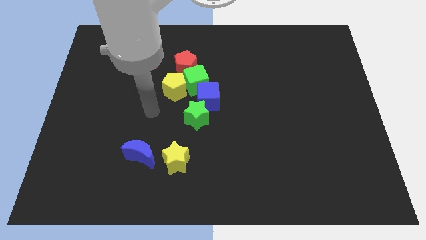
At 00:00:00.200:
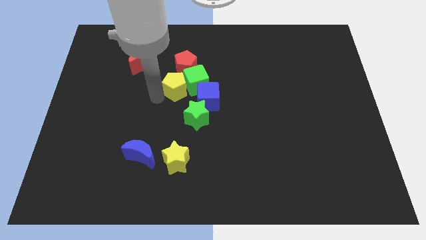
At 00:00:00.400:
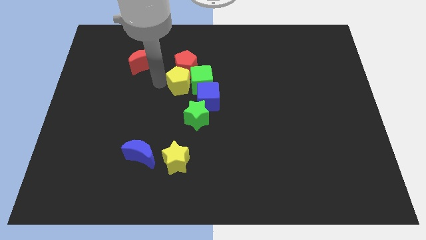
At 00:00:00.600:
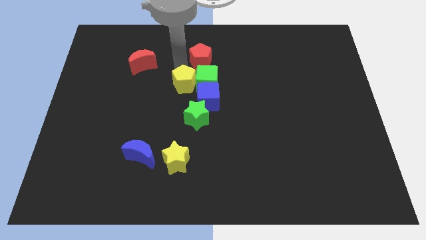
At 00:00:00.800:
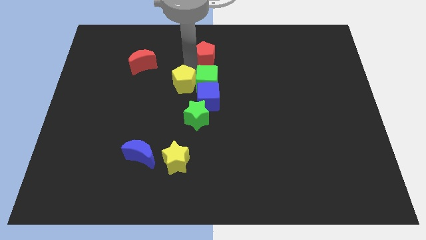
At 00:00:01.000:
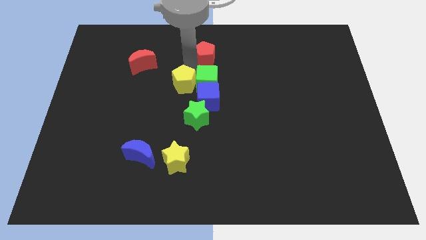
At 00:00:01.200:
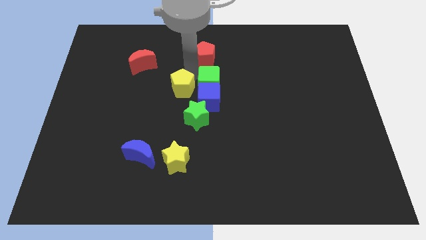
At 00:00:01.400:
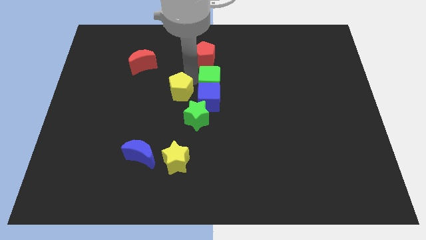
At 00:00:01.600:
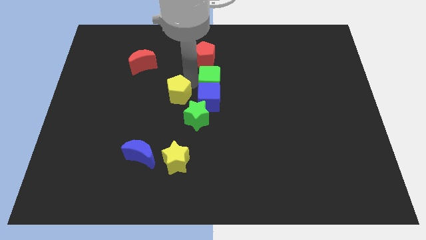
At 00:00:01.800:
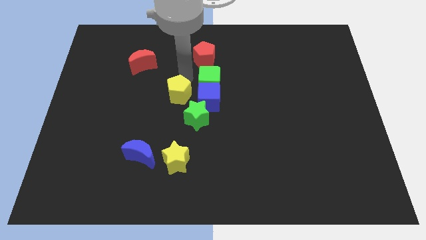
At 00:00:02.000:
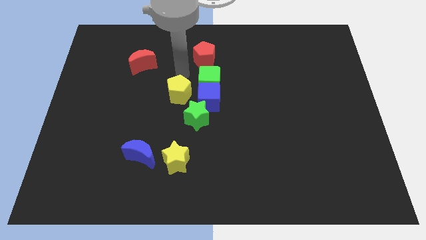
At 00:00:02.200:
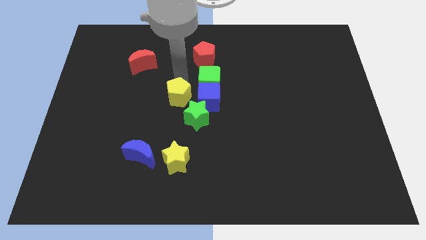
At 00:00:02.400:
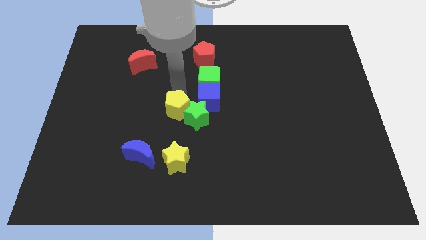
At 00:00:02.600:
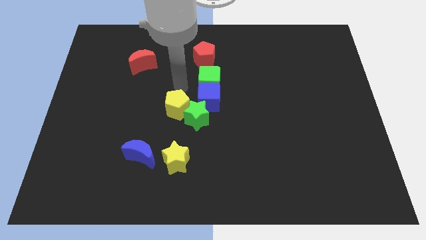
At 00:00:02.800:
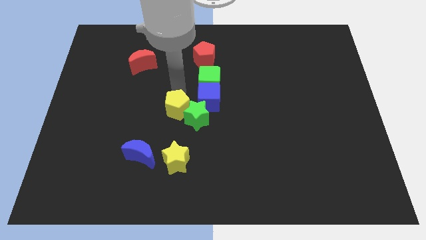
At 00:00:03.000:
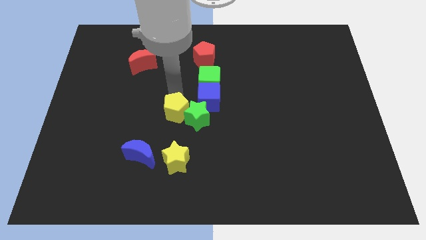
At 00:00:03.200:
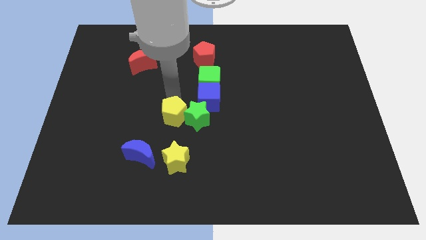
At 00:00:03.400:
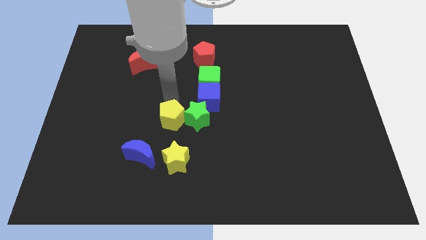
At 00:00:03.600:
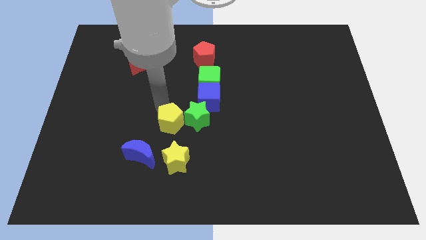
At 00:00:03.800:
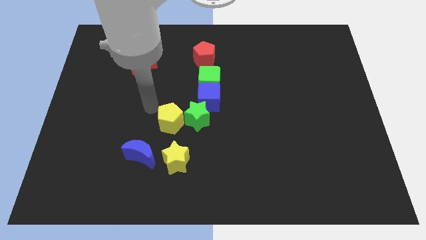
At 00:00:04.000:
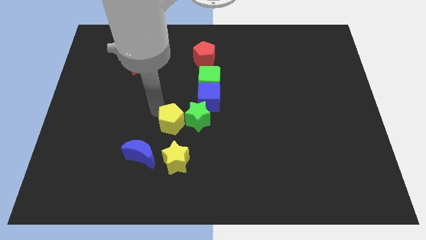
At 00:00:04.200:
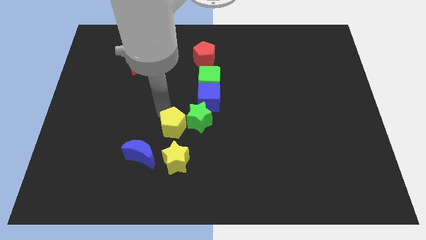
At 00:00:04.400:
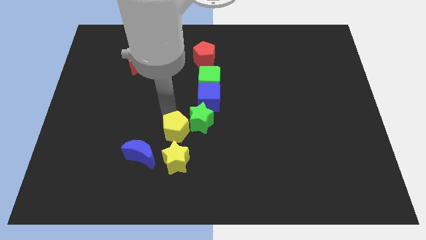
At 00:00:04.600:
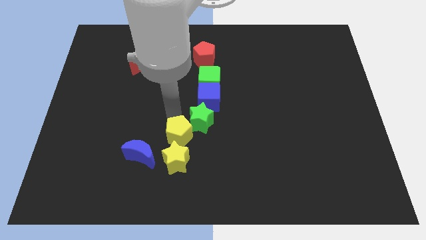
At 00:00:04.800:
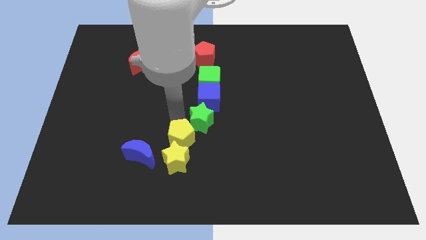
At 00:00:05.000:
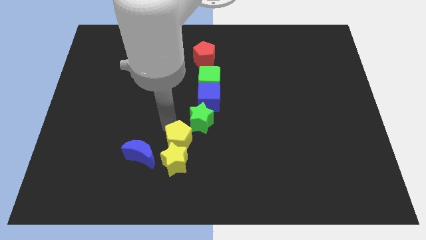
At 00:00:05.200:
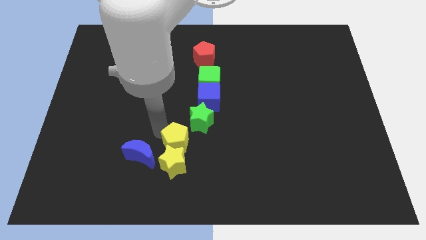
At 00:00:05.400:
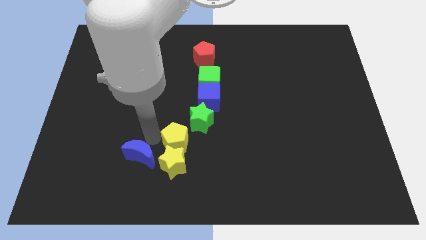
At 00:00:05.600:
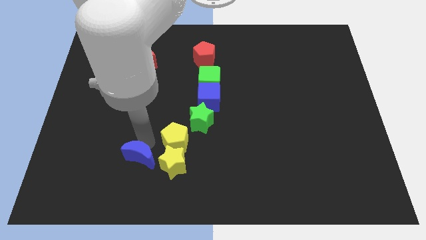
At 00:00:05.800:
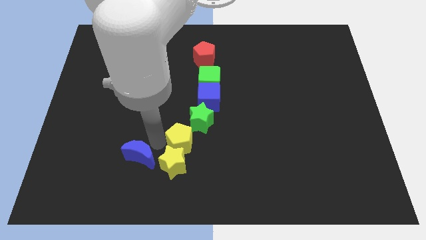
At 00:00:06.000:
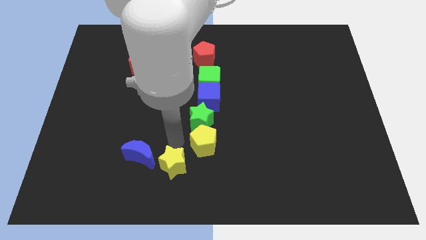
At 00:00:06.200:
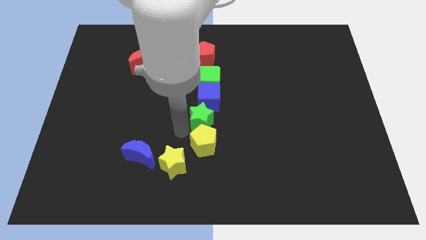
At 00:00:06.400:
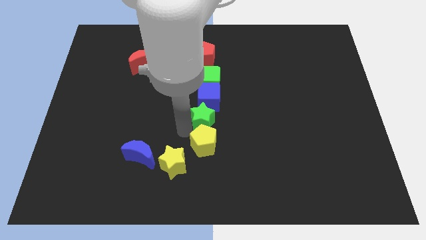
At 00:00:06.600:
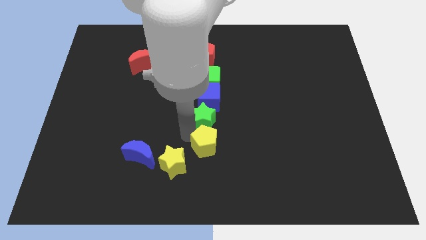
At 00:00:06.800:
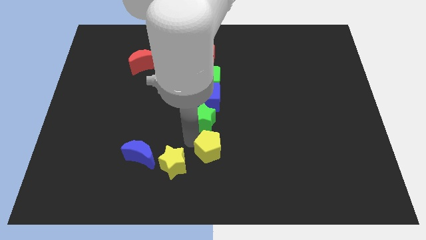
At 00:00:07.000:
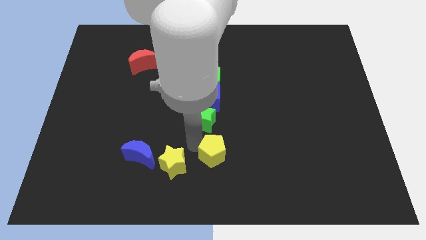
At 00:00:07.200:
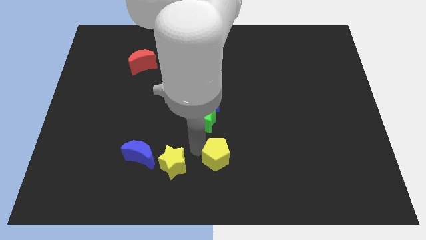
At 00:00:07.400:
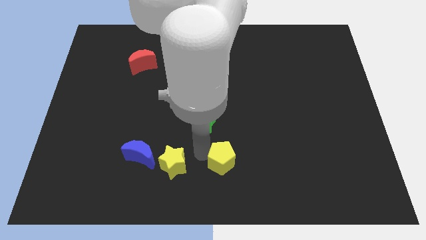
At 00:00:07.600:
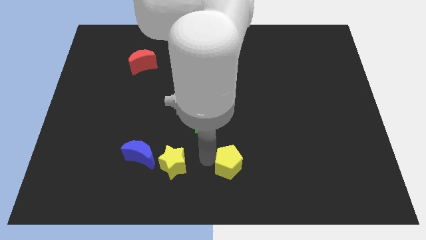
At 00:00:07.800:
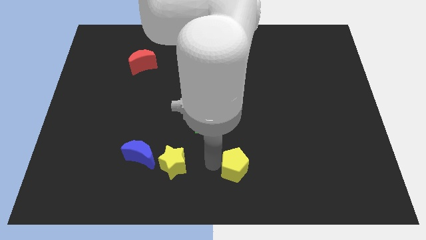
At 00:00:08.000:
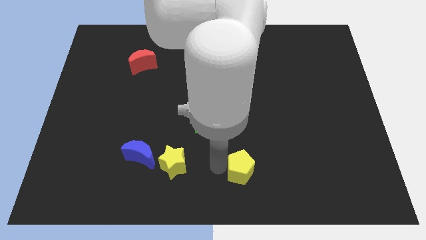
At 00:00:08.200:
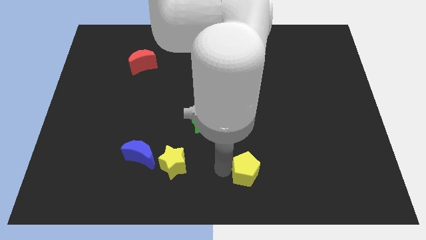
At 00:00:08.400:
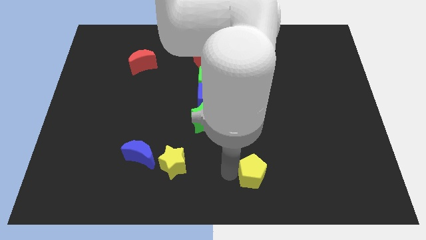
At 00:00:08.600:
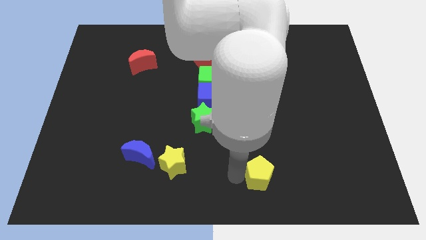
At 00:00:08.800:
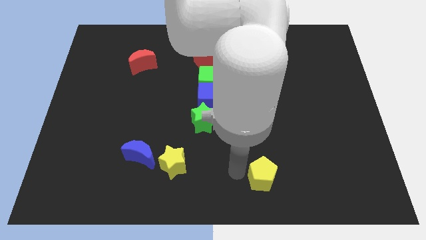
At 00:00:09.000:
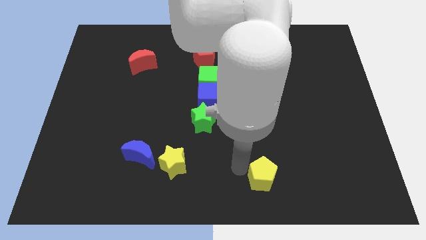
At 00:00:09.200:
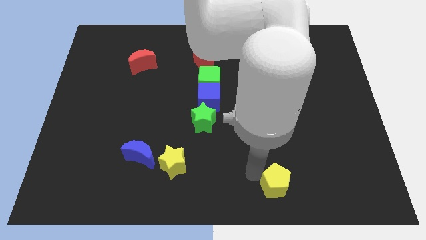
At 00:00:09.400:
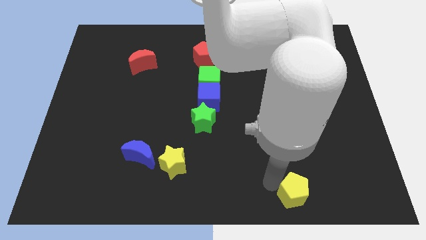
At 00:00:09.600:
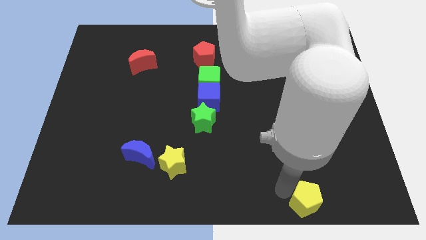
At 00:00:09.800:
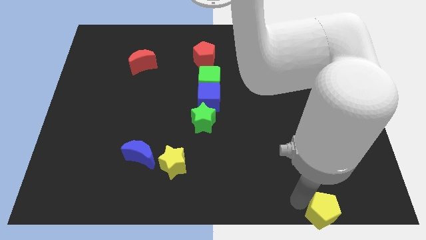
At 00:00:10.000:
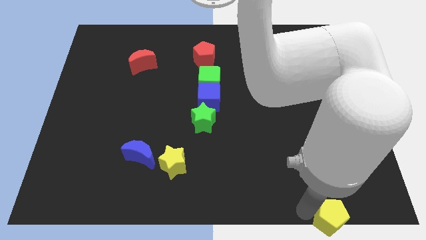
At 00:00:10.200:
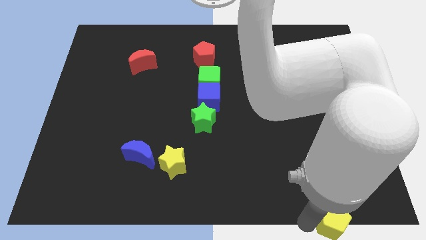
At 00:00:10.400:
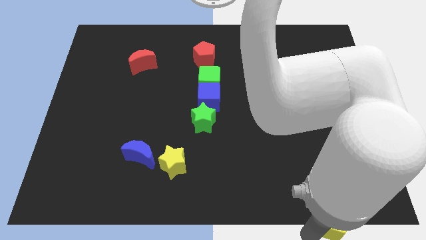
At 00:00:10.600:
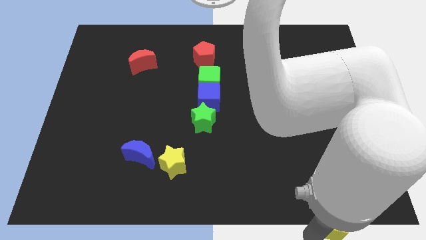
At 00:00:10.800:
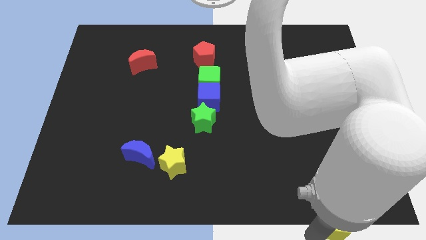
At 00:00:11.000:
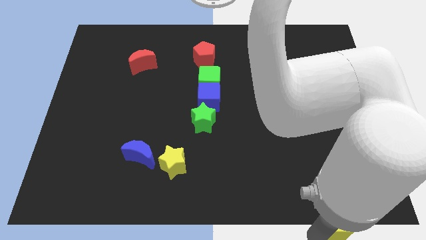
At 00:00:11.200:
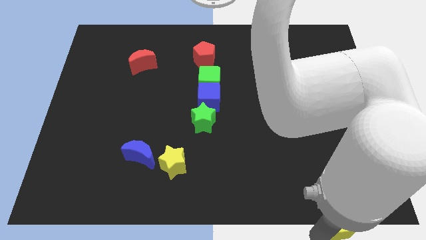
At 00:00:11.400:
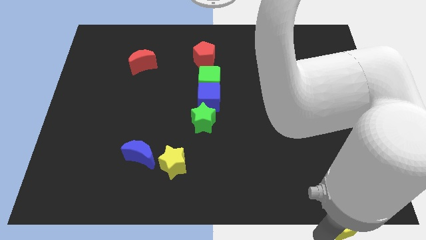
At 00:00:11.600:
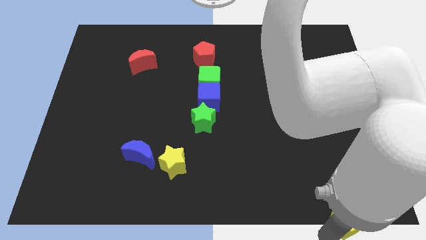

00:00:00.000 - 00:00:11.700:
push the yellow pentagon to the bottom right of the board

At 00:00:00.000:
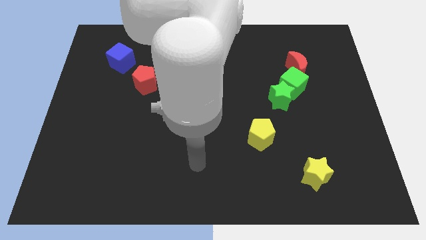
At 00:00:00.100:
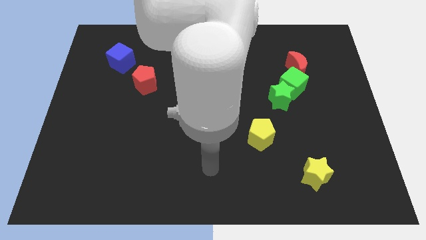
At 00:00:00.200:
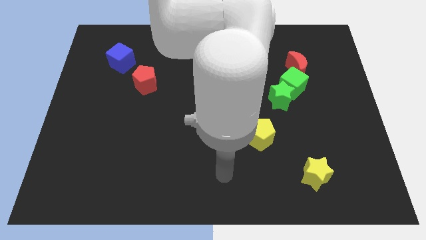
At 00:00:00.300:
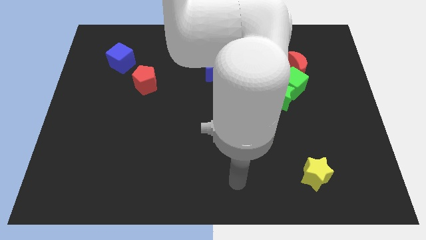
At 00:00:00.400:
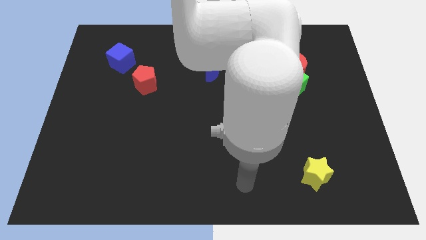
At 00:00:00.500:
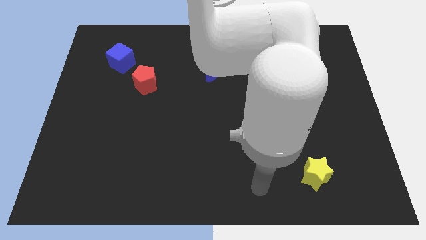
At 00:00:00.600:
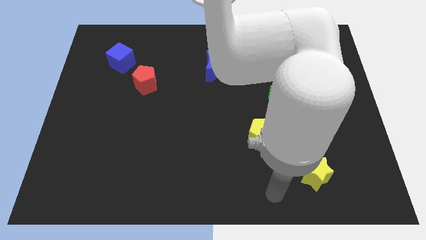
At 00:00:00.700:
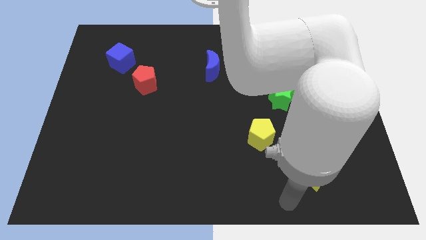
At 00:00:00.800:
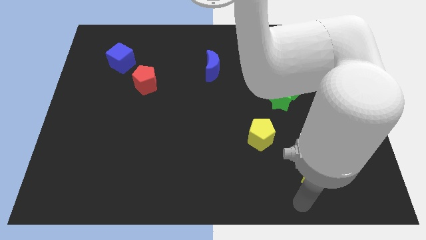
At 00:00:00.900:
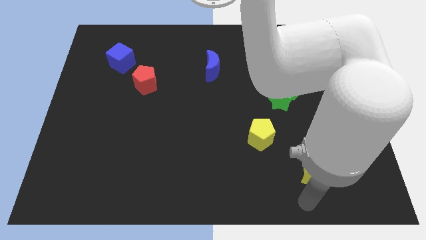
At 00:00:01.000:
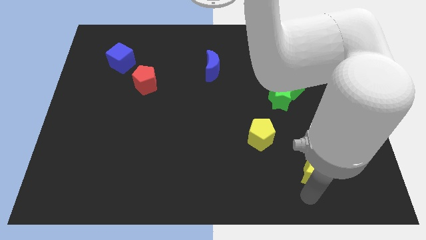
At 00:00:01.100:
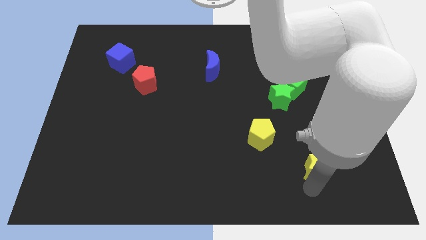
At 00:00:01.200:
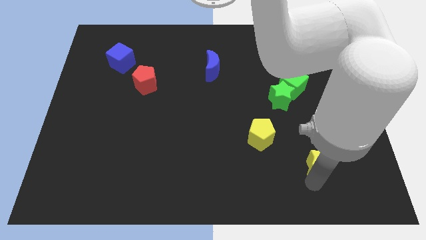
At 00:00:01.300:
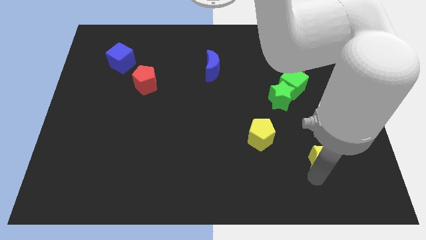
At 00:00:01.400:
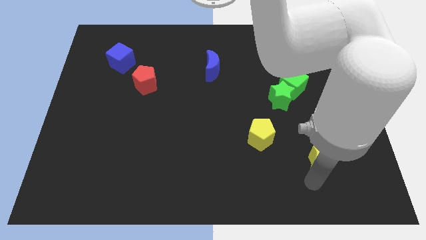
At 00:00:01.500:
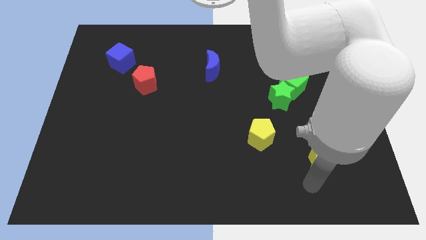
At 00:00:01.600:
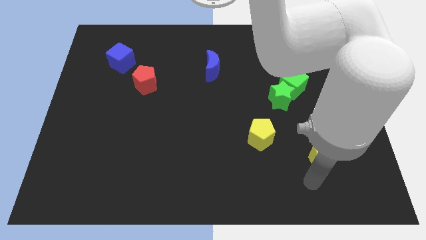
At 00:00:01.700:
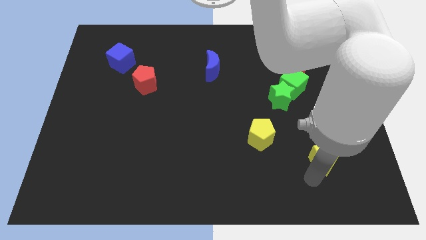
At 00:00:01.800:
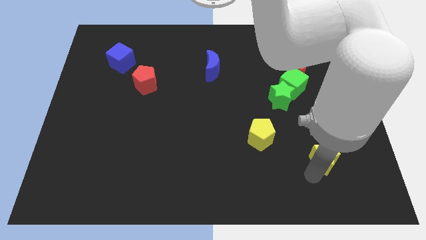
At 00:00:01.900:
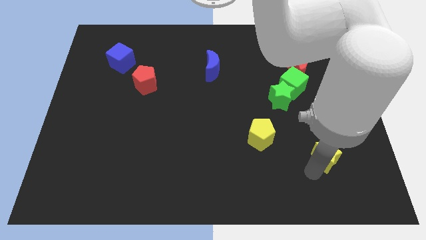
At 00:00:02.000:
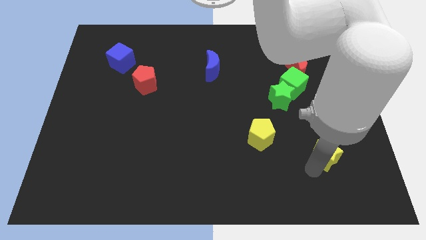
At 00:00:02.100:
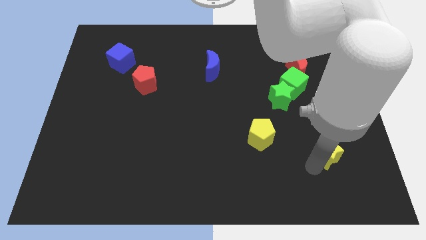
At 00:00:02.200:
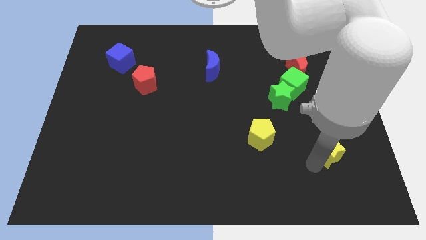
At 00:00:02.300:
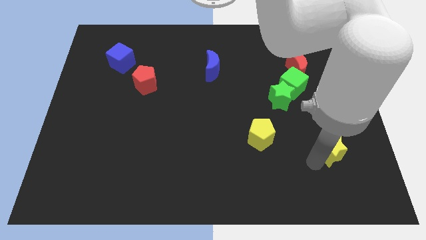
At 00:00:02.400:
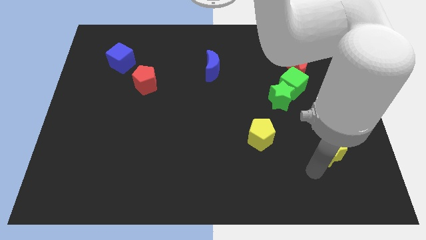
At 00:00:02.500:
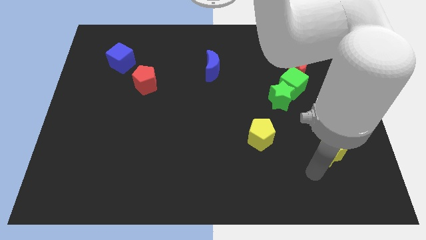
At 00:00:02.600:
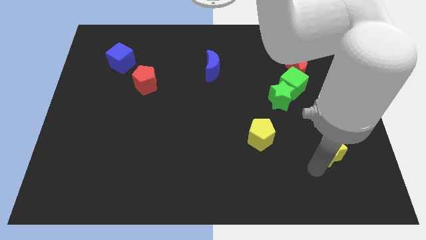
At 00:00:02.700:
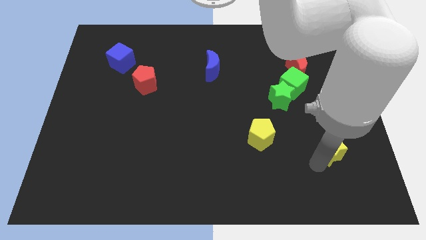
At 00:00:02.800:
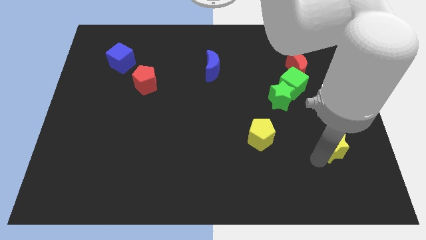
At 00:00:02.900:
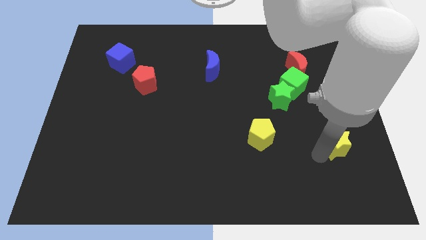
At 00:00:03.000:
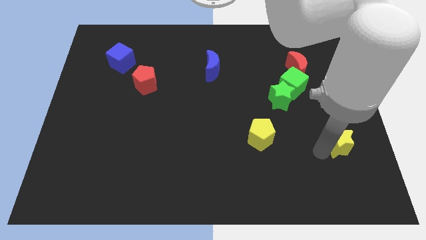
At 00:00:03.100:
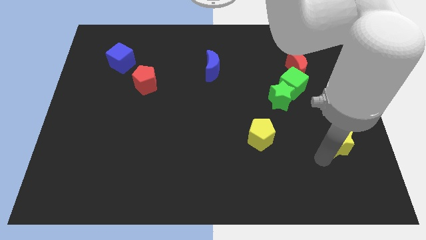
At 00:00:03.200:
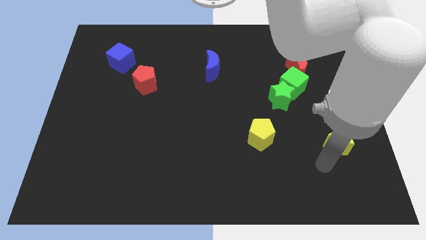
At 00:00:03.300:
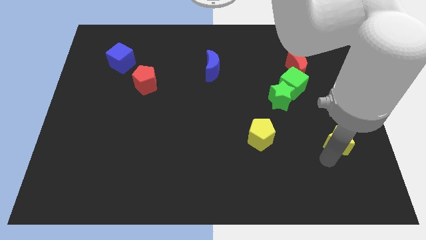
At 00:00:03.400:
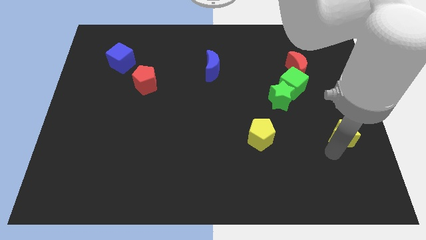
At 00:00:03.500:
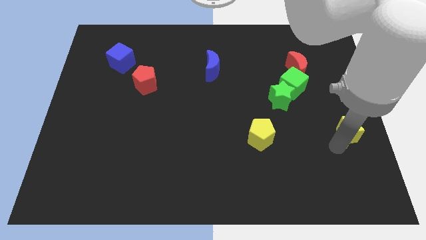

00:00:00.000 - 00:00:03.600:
push the yellow star to the center right
